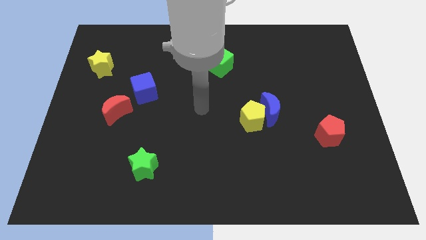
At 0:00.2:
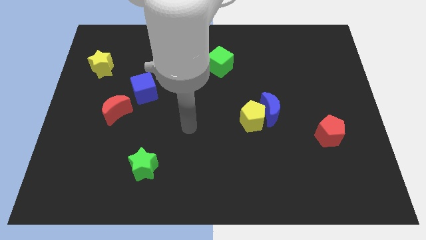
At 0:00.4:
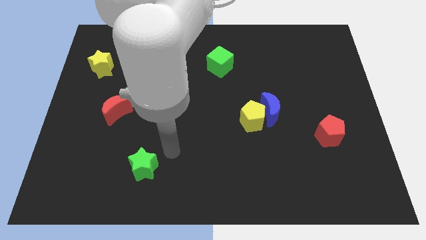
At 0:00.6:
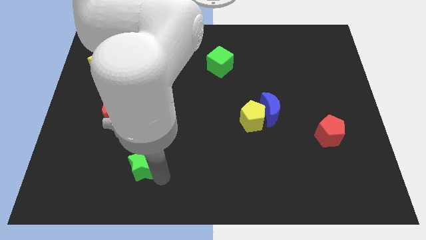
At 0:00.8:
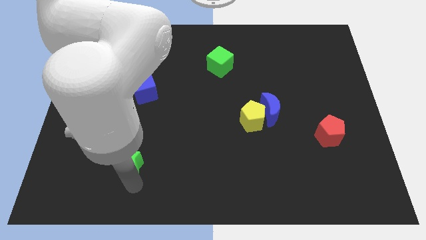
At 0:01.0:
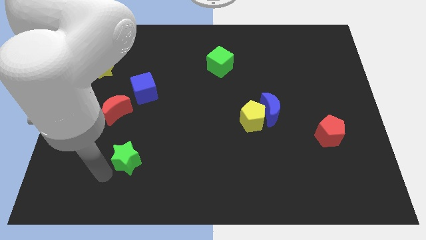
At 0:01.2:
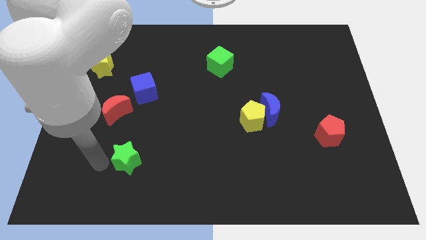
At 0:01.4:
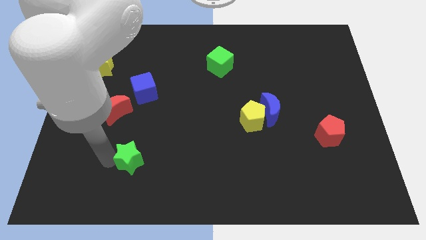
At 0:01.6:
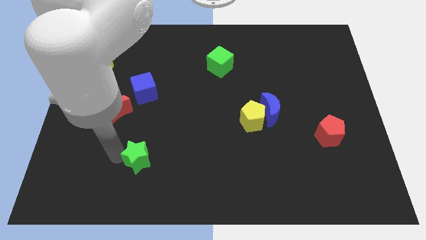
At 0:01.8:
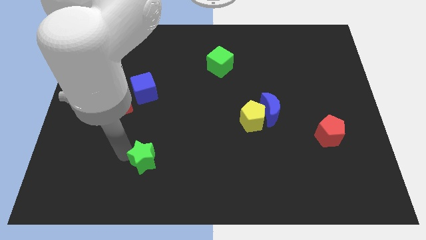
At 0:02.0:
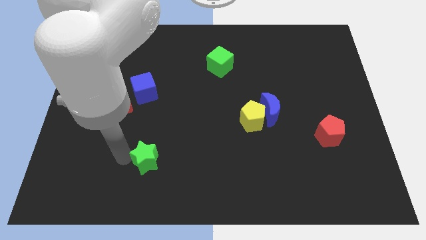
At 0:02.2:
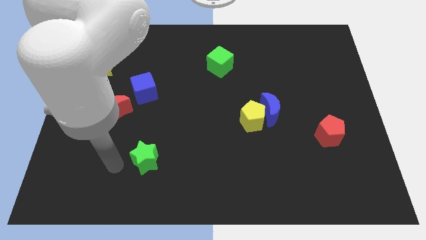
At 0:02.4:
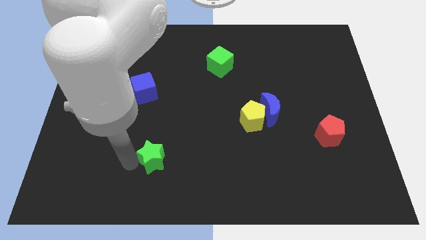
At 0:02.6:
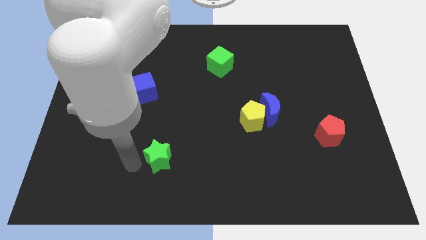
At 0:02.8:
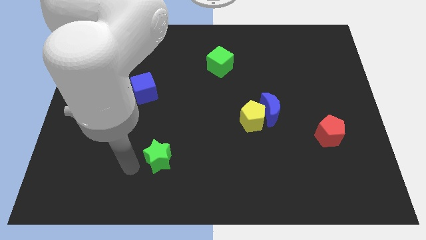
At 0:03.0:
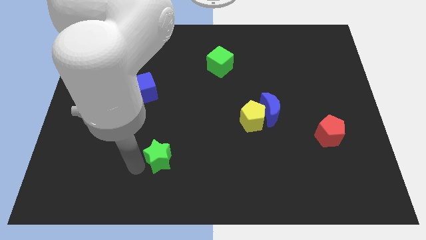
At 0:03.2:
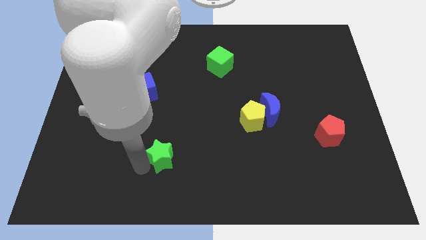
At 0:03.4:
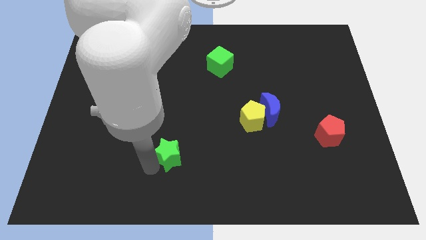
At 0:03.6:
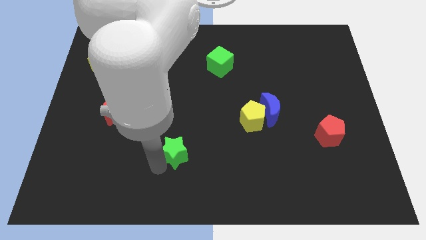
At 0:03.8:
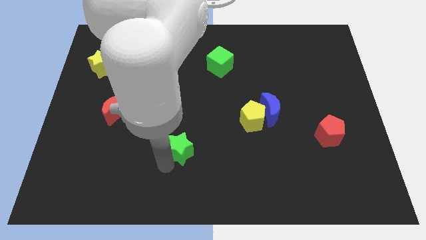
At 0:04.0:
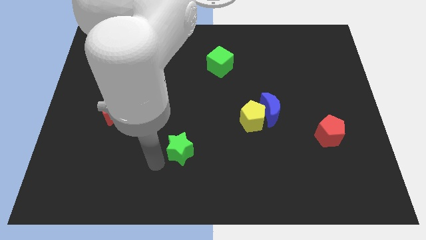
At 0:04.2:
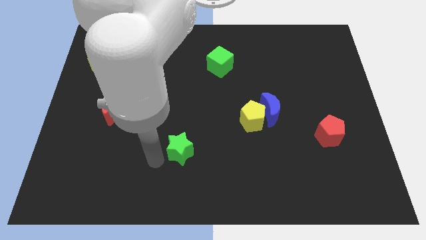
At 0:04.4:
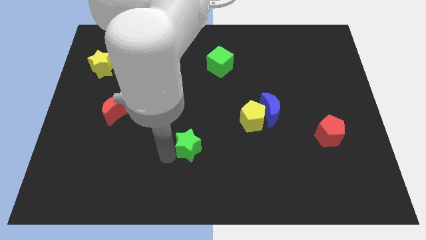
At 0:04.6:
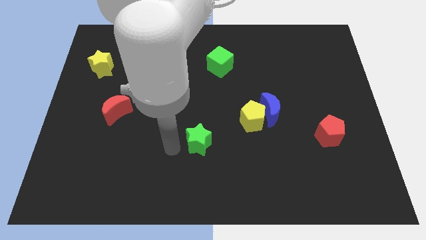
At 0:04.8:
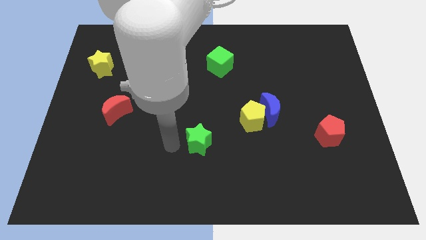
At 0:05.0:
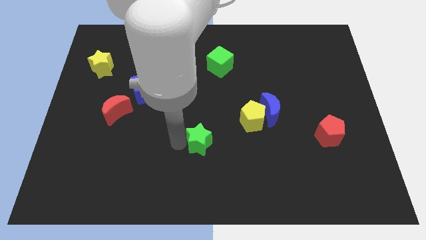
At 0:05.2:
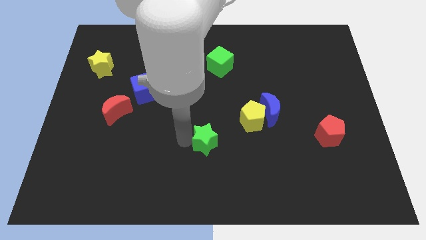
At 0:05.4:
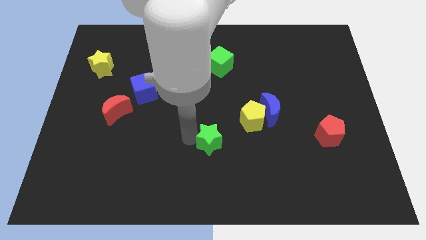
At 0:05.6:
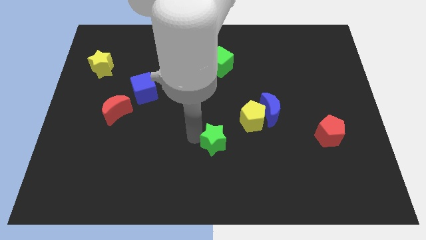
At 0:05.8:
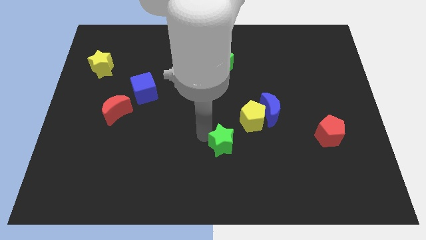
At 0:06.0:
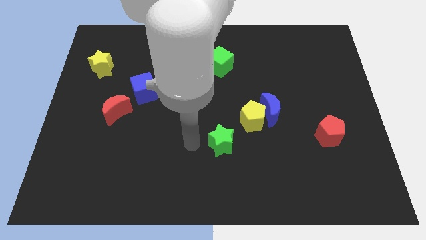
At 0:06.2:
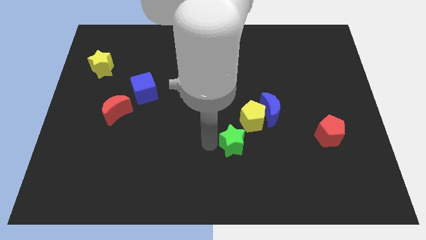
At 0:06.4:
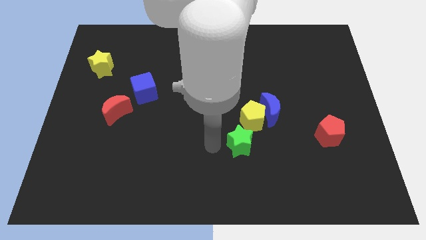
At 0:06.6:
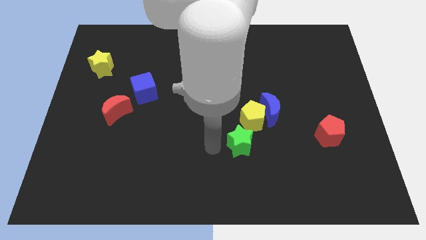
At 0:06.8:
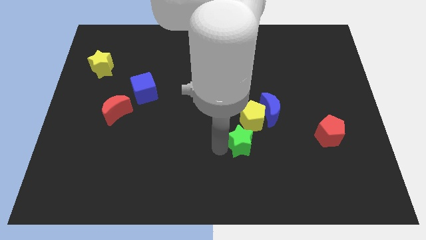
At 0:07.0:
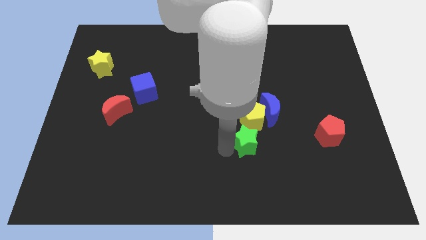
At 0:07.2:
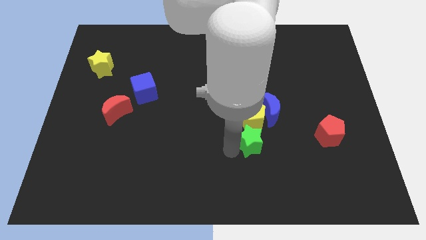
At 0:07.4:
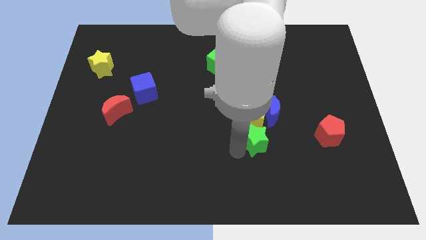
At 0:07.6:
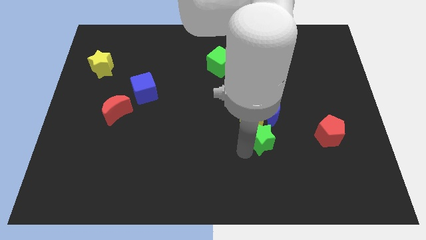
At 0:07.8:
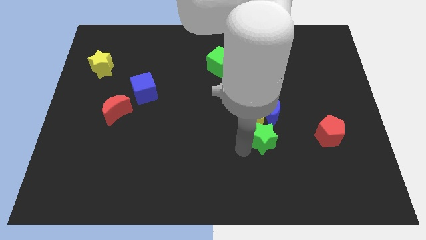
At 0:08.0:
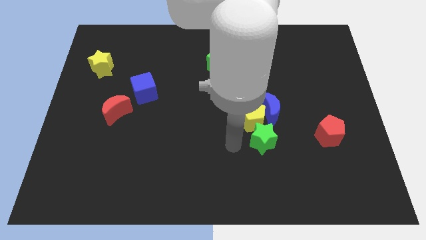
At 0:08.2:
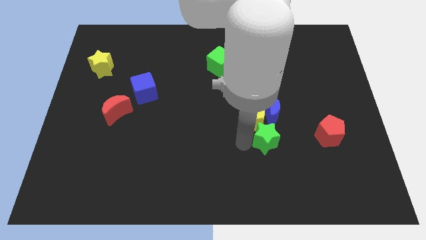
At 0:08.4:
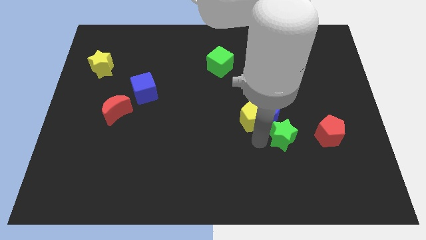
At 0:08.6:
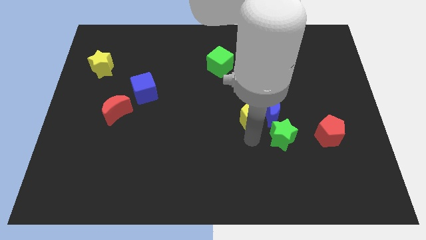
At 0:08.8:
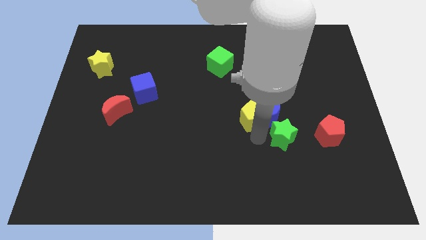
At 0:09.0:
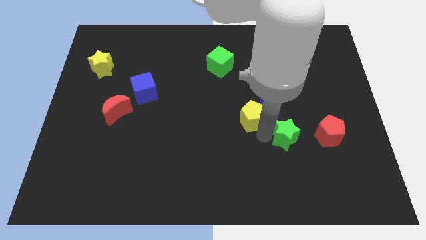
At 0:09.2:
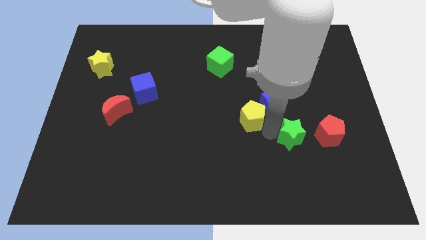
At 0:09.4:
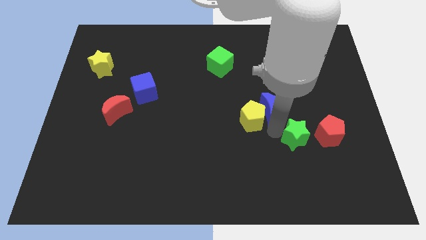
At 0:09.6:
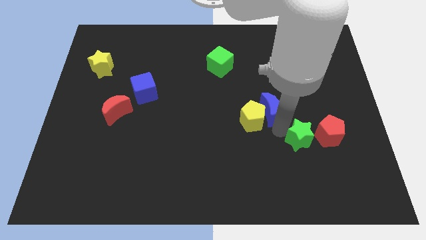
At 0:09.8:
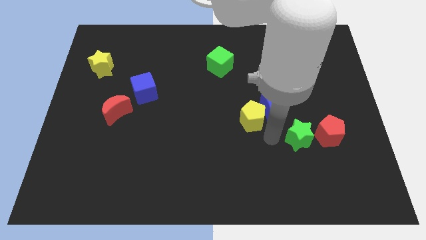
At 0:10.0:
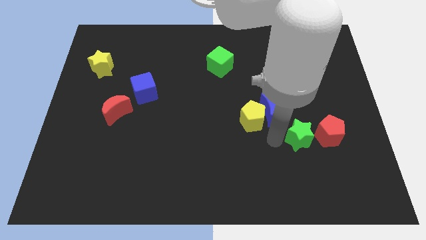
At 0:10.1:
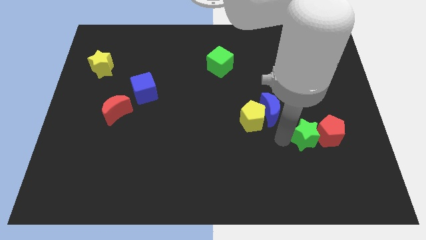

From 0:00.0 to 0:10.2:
slide the green star next to the red pentagon

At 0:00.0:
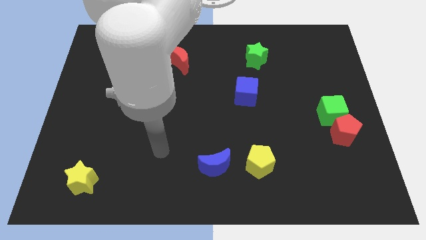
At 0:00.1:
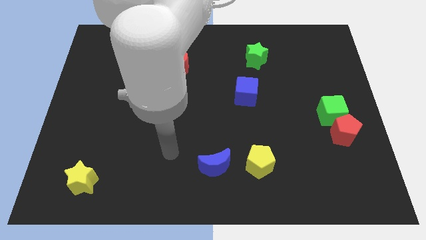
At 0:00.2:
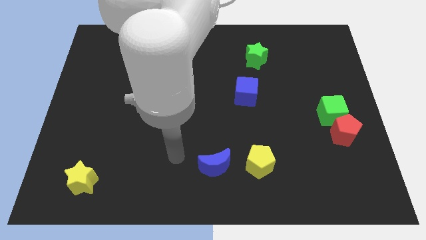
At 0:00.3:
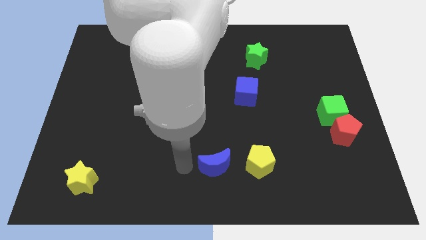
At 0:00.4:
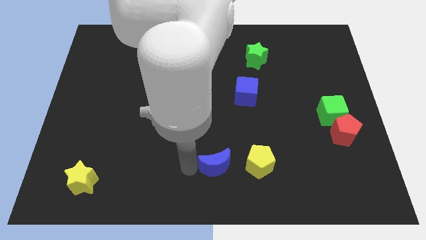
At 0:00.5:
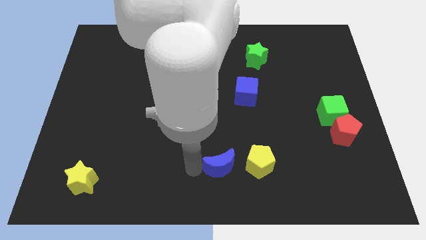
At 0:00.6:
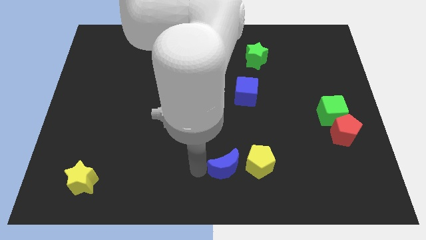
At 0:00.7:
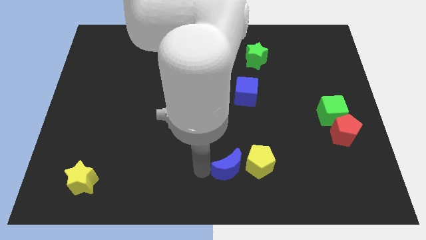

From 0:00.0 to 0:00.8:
push the blue moon towards the yellow pentagon

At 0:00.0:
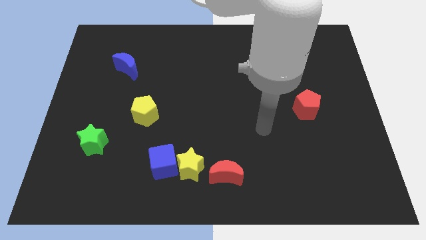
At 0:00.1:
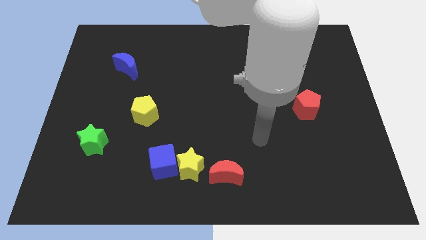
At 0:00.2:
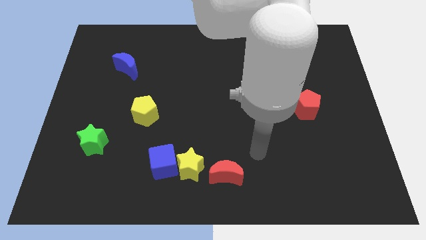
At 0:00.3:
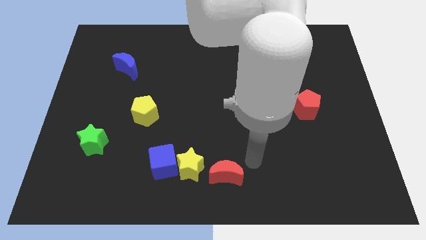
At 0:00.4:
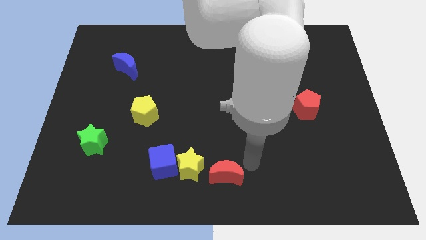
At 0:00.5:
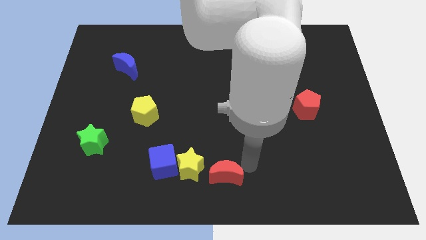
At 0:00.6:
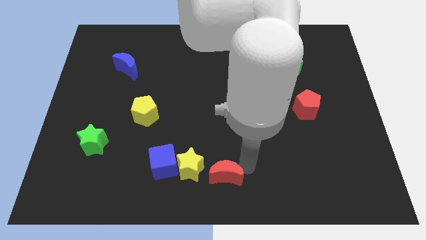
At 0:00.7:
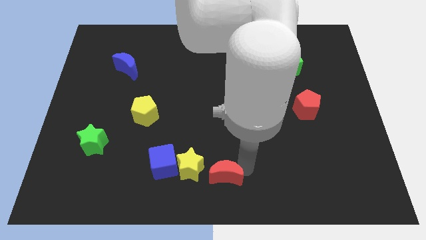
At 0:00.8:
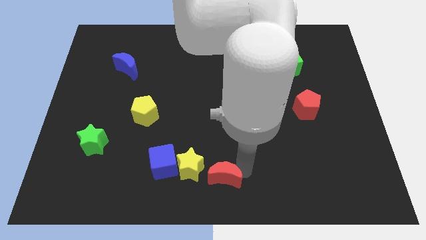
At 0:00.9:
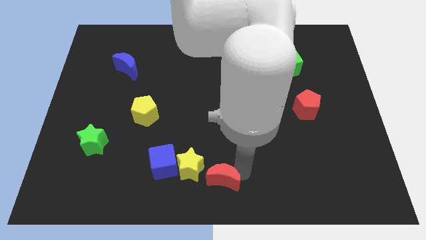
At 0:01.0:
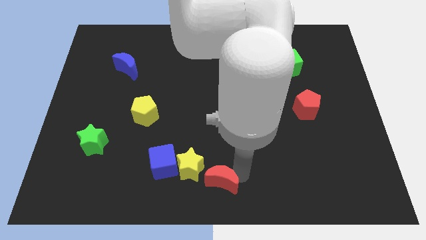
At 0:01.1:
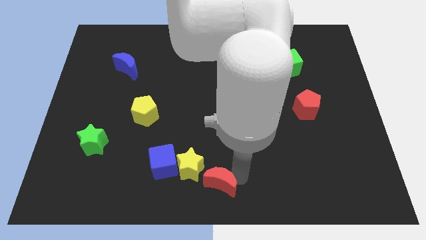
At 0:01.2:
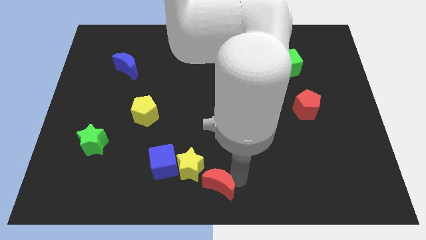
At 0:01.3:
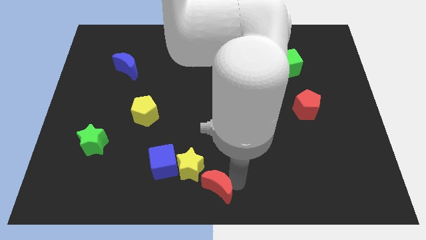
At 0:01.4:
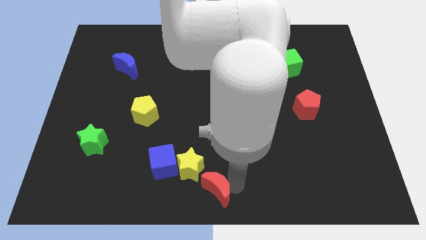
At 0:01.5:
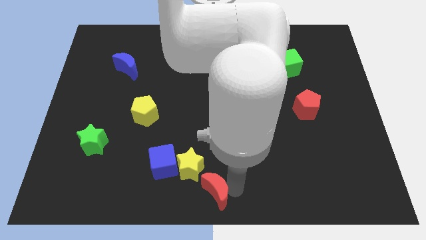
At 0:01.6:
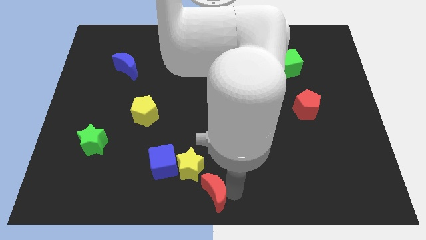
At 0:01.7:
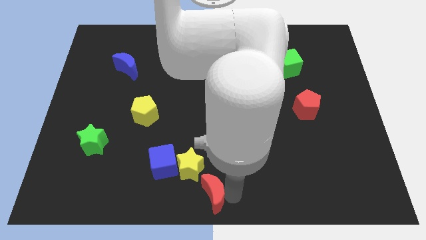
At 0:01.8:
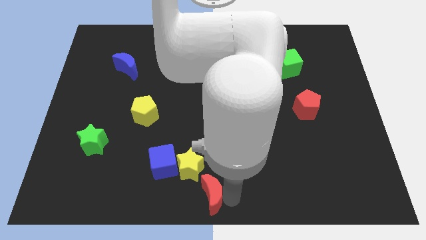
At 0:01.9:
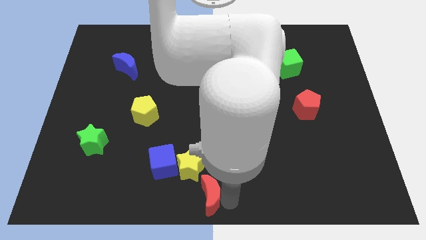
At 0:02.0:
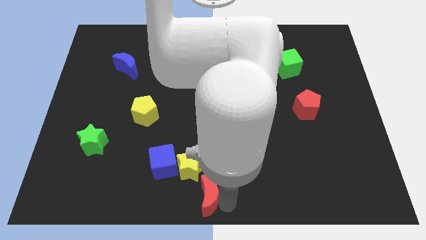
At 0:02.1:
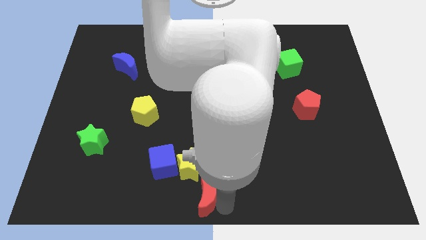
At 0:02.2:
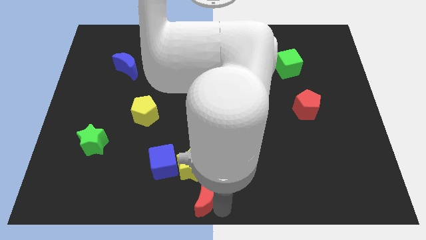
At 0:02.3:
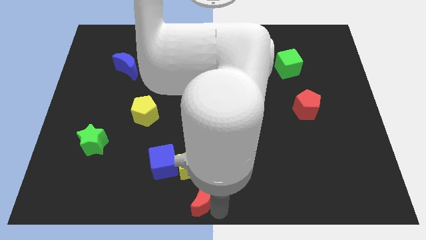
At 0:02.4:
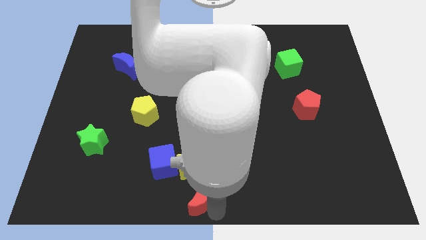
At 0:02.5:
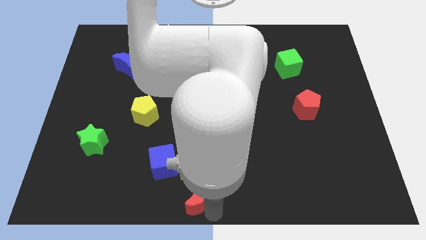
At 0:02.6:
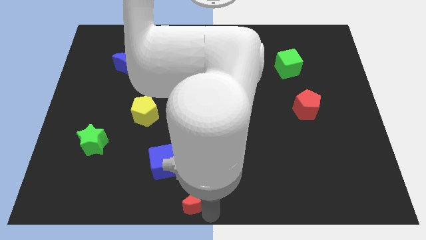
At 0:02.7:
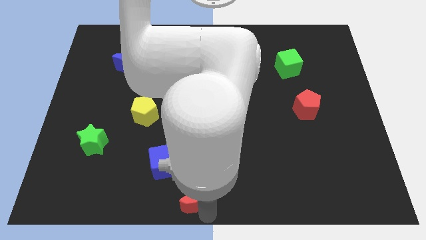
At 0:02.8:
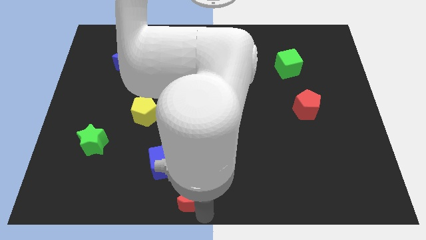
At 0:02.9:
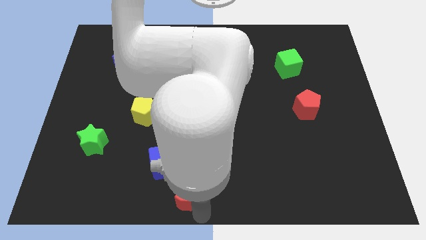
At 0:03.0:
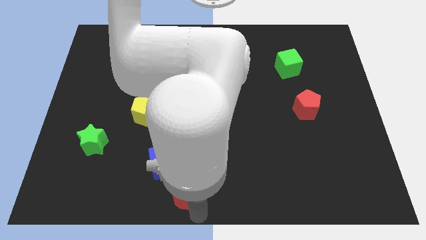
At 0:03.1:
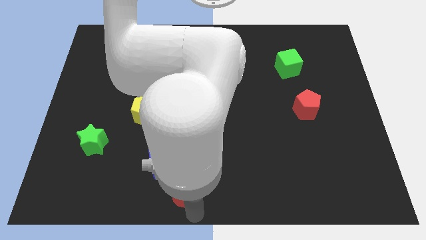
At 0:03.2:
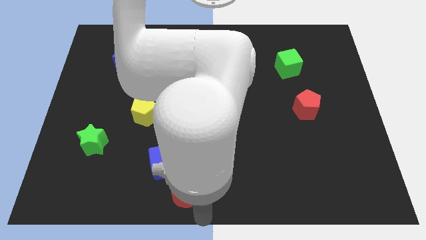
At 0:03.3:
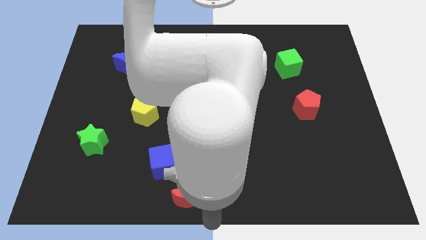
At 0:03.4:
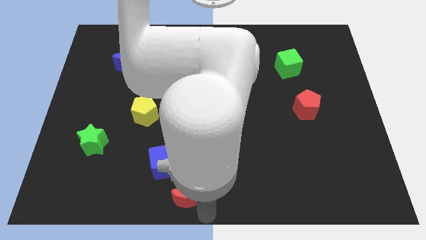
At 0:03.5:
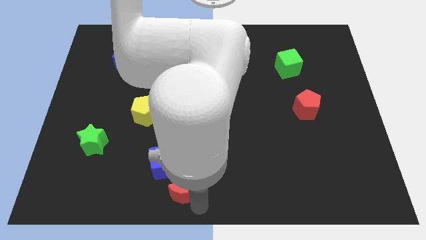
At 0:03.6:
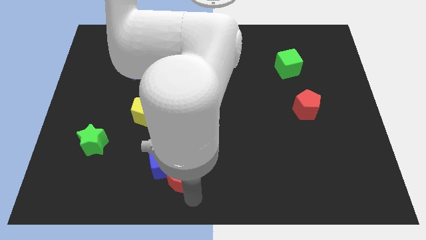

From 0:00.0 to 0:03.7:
push the red moon close to the blue cube
